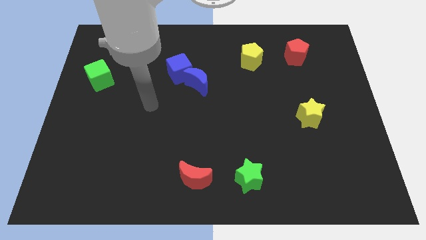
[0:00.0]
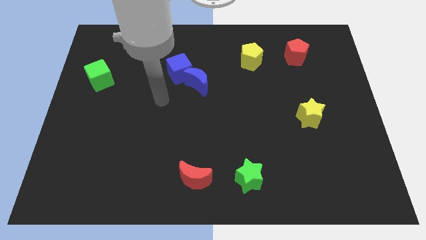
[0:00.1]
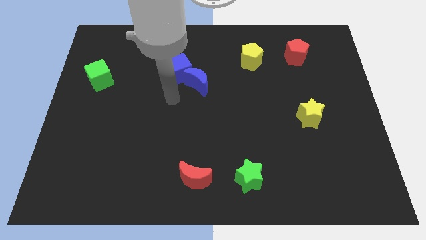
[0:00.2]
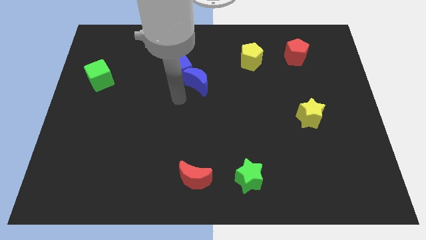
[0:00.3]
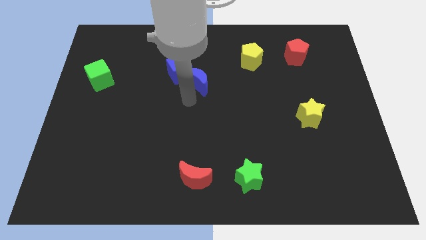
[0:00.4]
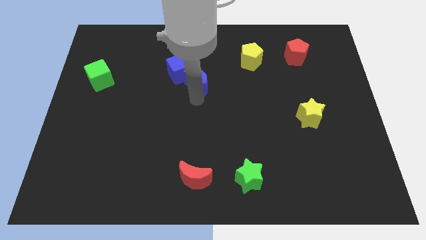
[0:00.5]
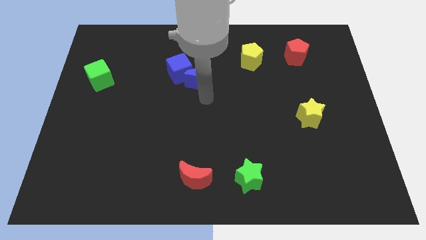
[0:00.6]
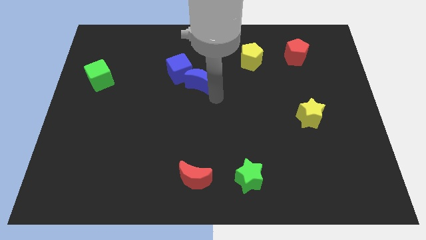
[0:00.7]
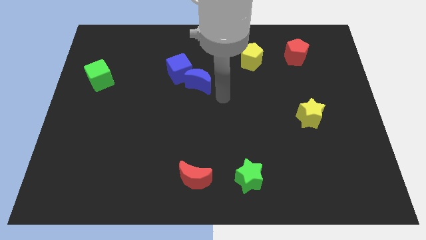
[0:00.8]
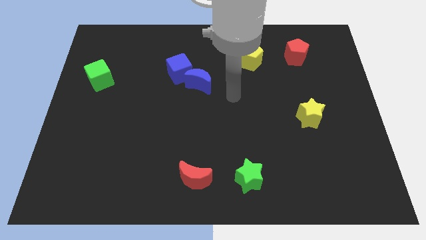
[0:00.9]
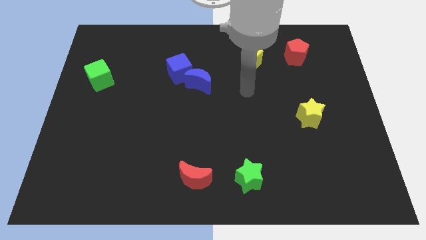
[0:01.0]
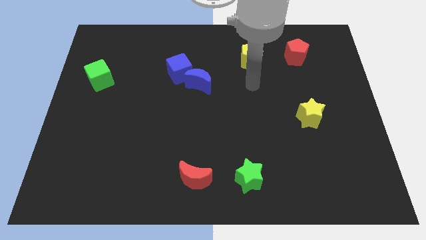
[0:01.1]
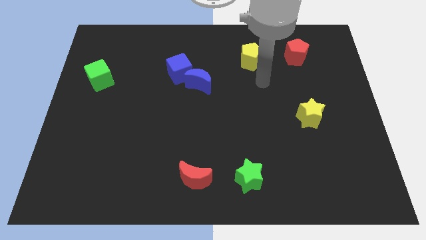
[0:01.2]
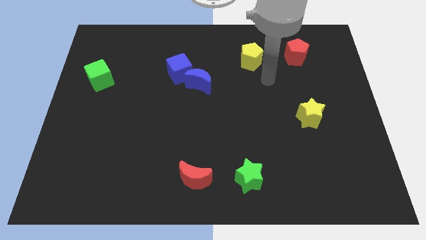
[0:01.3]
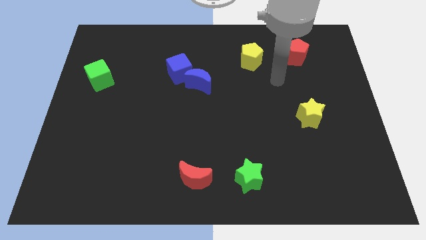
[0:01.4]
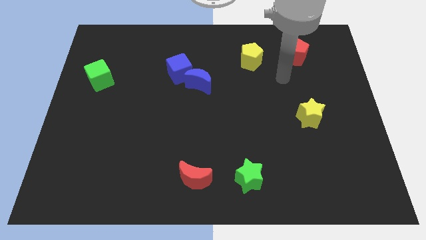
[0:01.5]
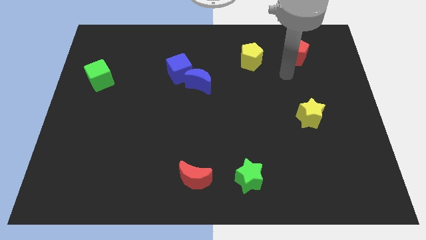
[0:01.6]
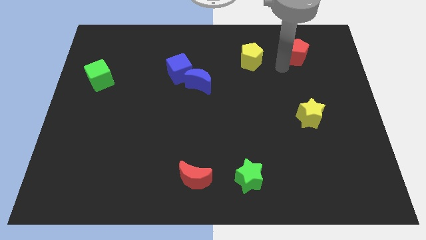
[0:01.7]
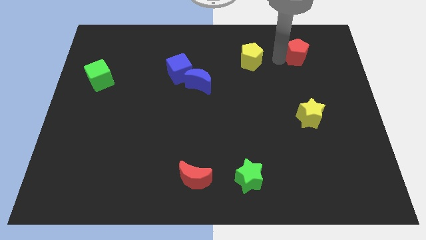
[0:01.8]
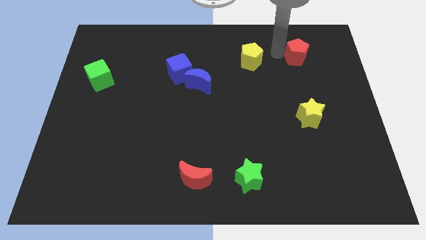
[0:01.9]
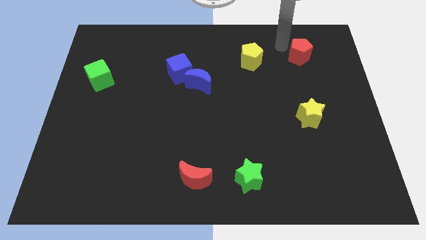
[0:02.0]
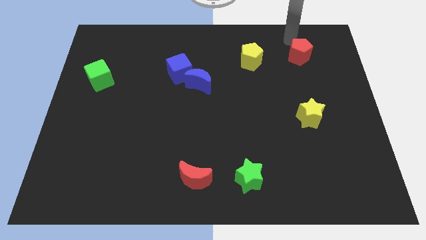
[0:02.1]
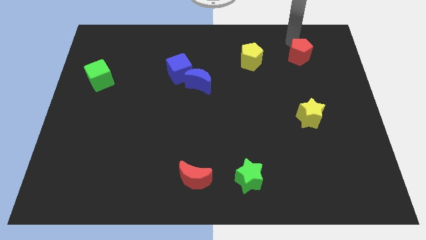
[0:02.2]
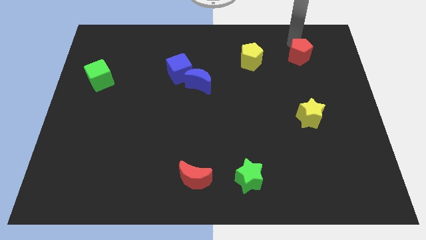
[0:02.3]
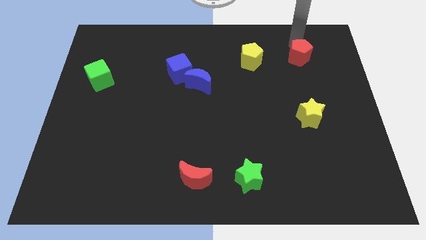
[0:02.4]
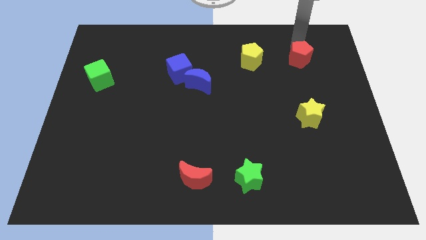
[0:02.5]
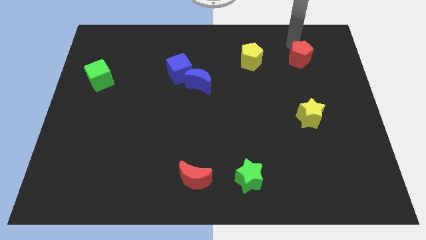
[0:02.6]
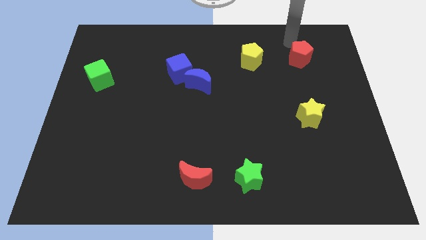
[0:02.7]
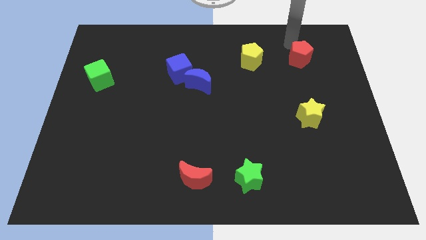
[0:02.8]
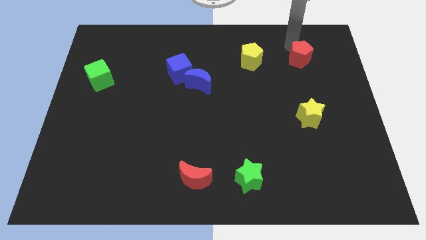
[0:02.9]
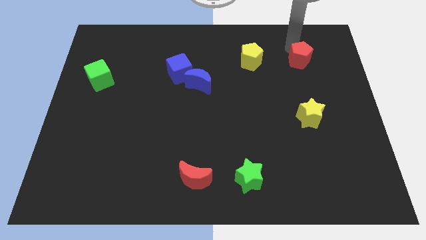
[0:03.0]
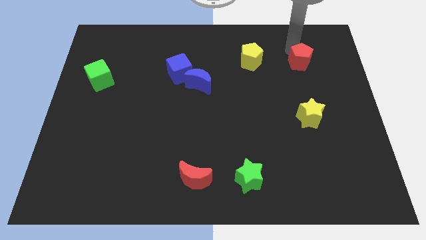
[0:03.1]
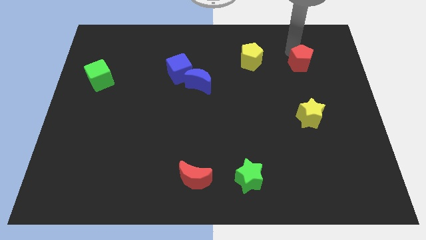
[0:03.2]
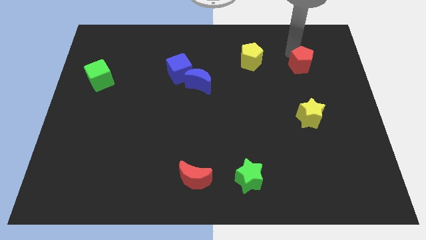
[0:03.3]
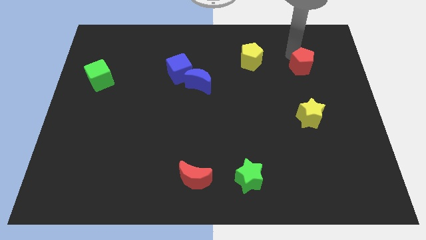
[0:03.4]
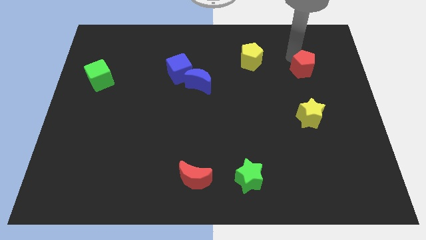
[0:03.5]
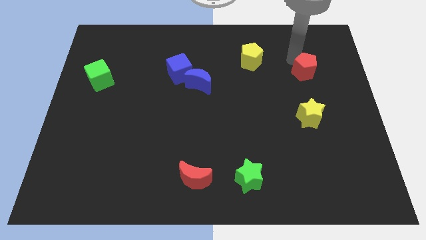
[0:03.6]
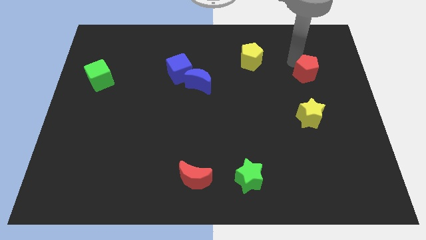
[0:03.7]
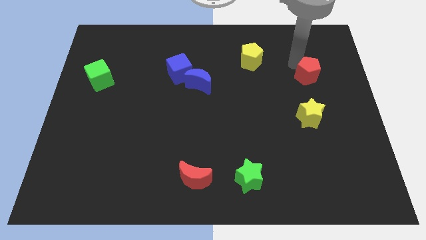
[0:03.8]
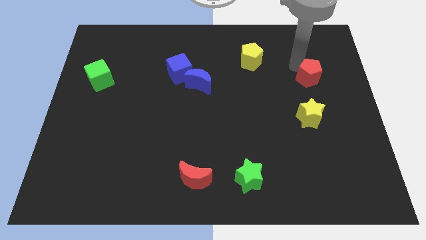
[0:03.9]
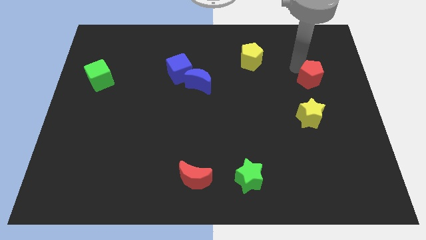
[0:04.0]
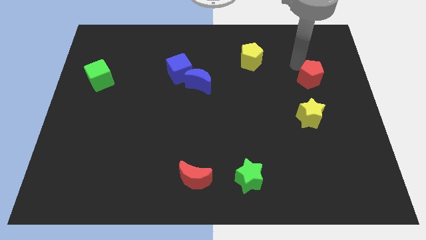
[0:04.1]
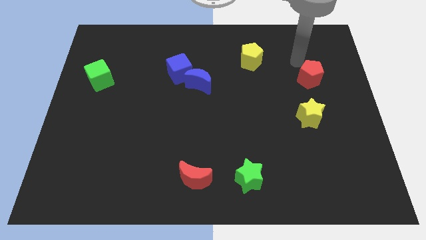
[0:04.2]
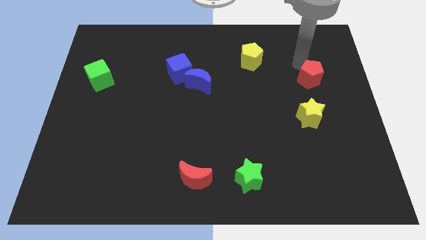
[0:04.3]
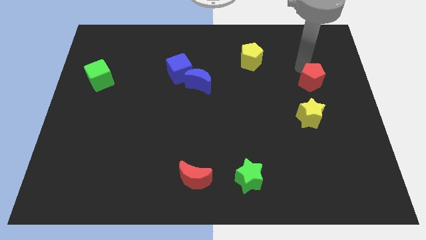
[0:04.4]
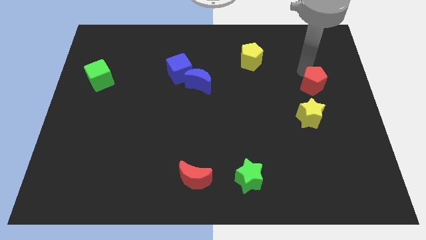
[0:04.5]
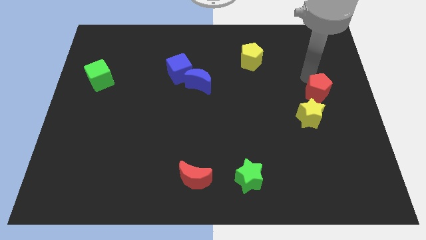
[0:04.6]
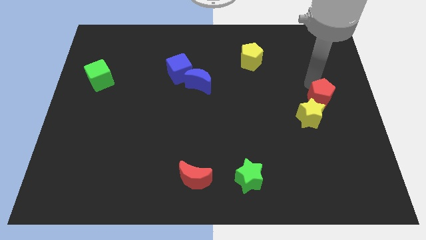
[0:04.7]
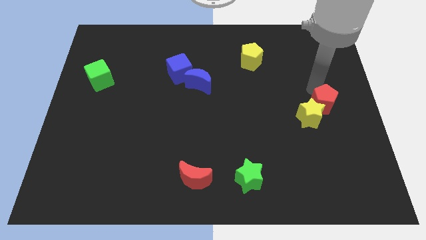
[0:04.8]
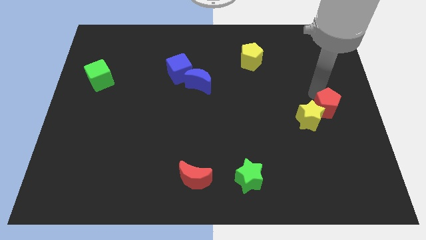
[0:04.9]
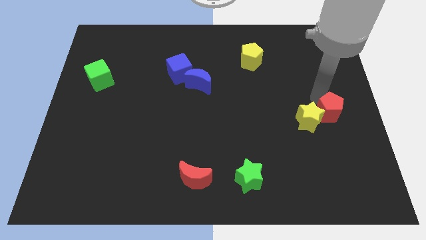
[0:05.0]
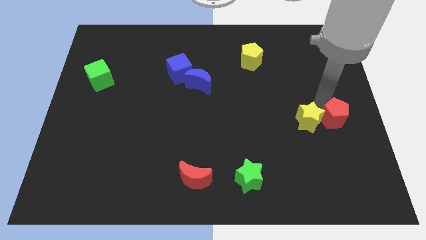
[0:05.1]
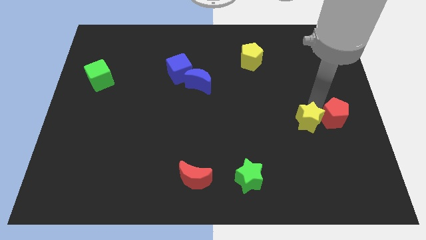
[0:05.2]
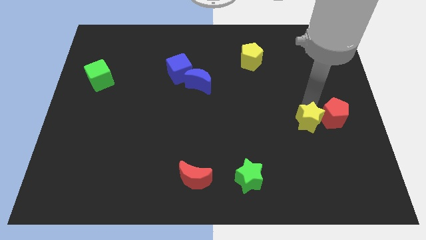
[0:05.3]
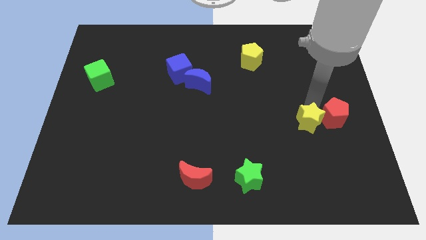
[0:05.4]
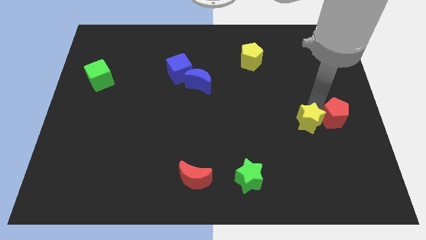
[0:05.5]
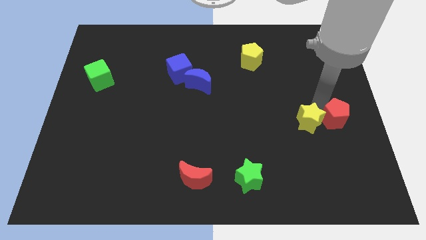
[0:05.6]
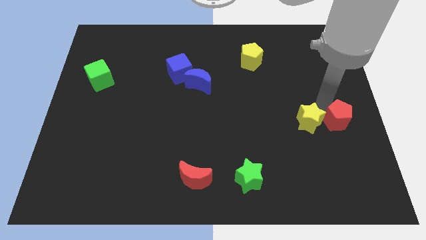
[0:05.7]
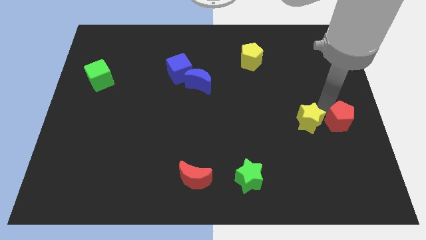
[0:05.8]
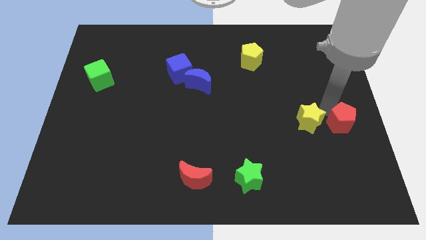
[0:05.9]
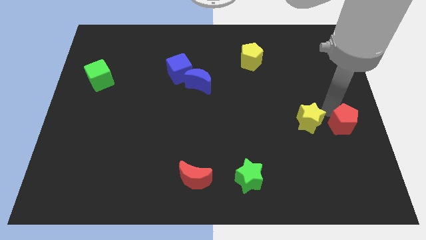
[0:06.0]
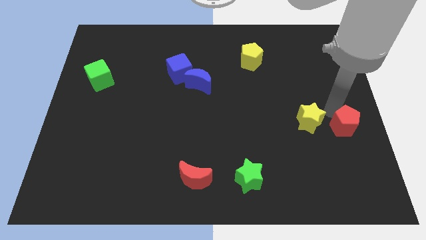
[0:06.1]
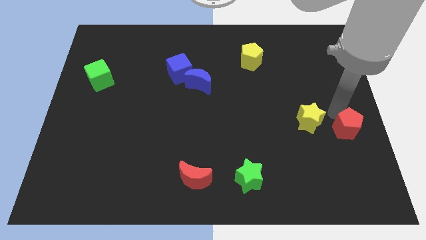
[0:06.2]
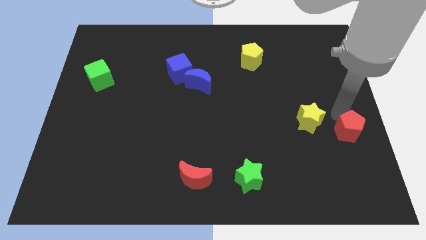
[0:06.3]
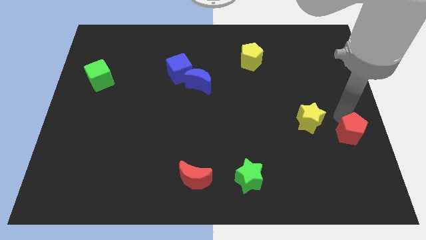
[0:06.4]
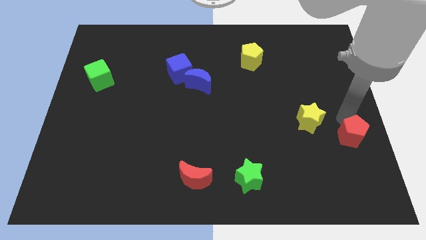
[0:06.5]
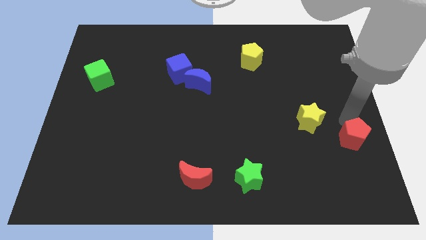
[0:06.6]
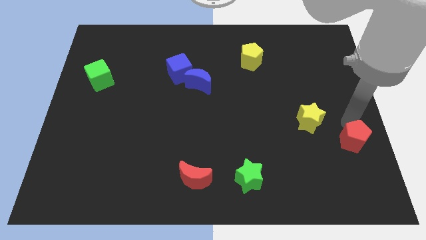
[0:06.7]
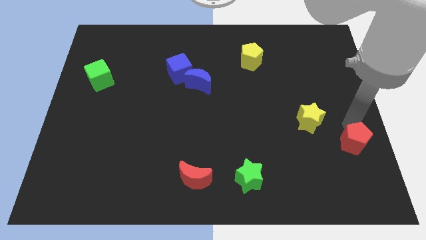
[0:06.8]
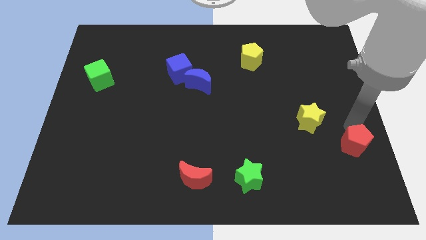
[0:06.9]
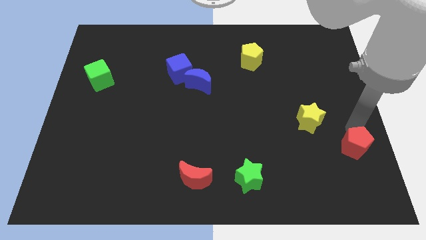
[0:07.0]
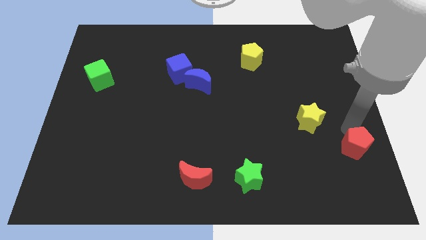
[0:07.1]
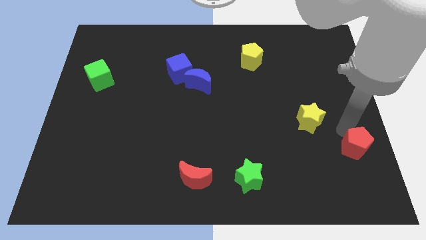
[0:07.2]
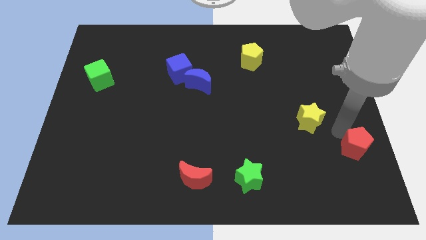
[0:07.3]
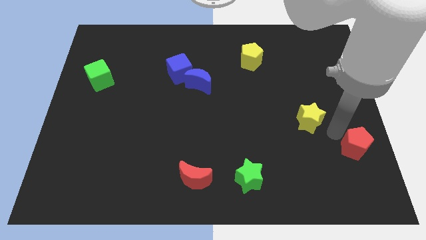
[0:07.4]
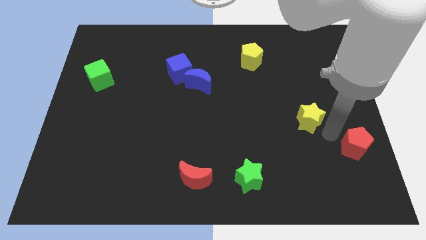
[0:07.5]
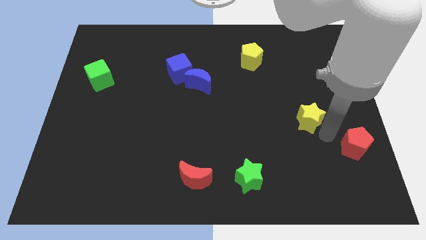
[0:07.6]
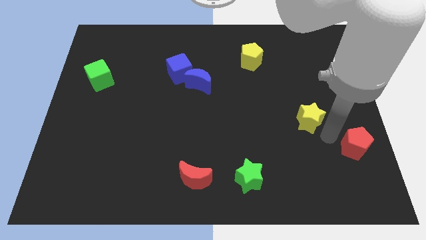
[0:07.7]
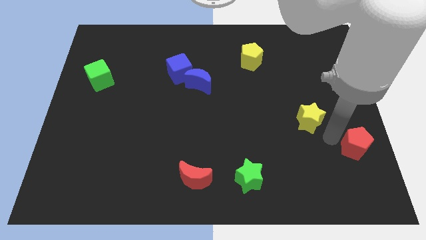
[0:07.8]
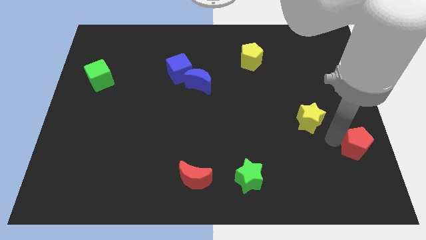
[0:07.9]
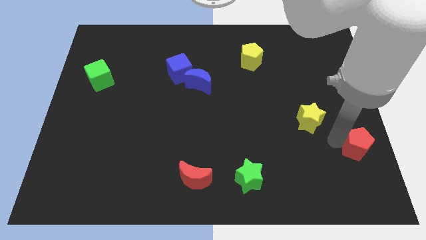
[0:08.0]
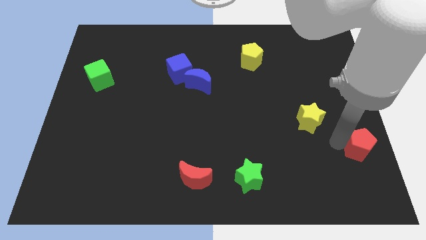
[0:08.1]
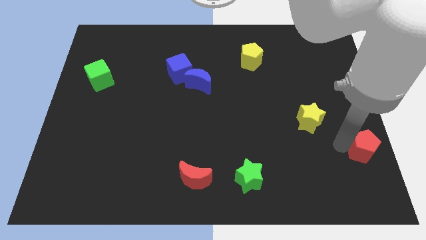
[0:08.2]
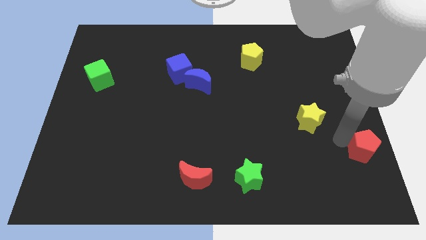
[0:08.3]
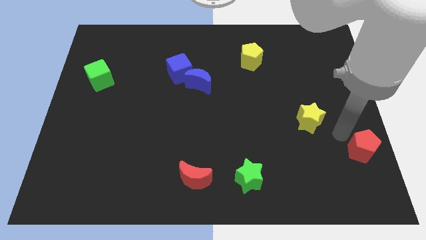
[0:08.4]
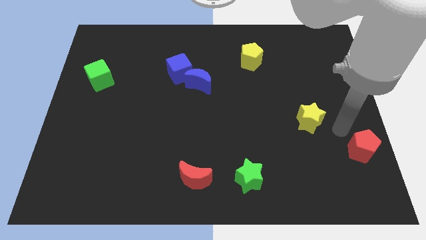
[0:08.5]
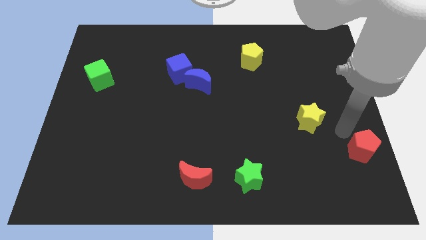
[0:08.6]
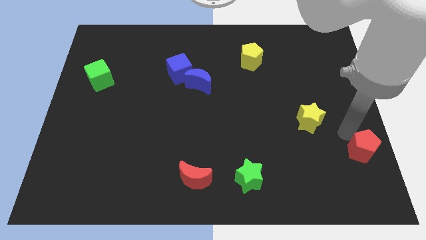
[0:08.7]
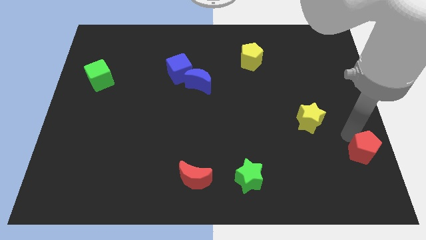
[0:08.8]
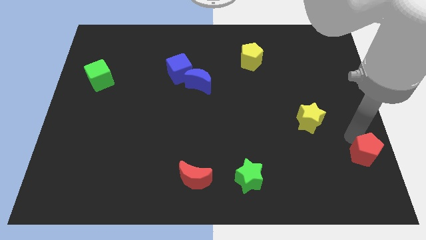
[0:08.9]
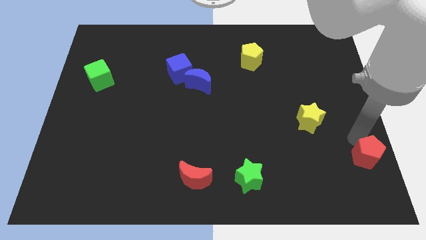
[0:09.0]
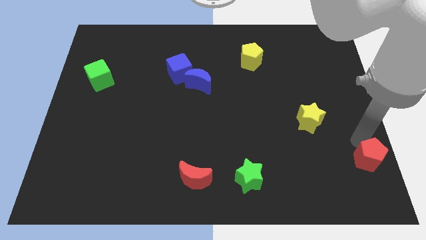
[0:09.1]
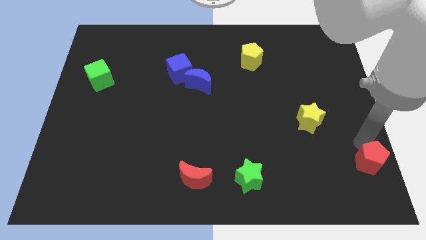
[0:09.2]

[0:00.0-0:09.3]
slide the red pentagon to the bottom right corner
